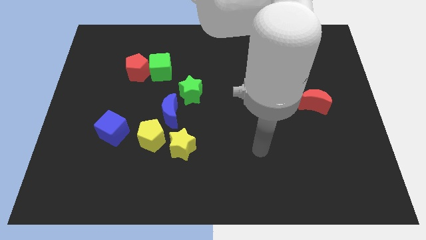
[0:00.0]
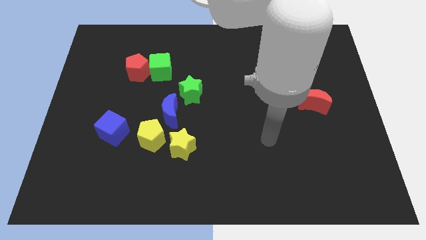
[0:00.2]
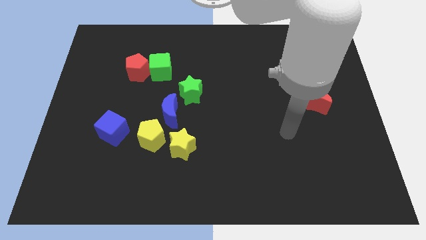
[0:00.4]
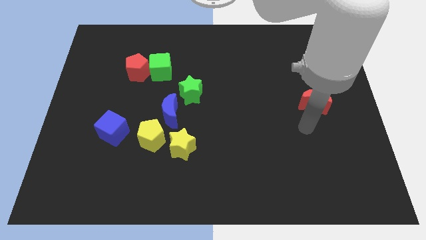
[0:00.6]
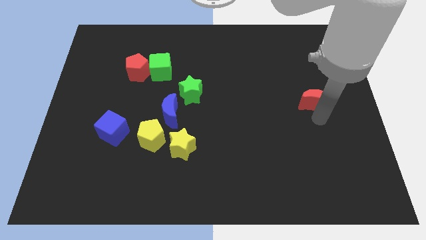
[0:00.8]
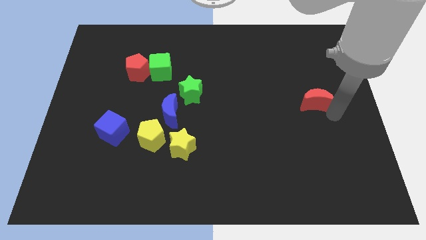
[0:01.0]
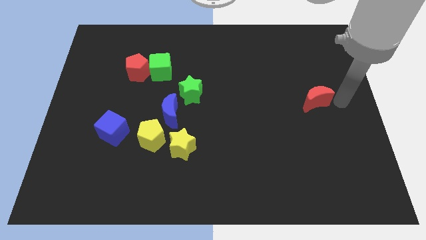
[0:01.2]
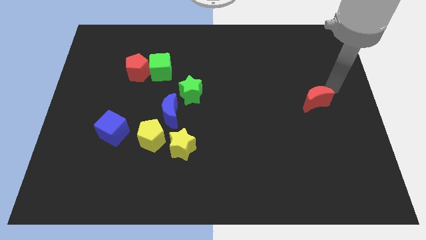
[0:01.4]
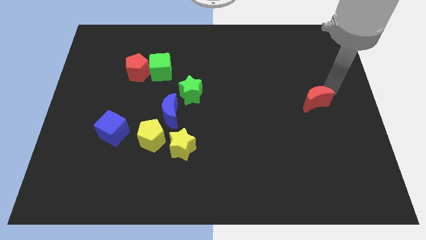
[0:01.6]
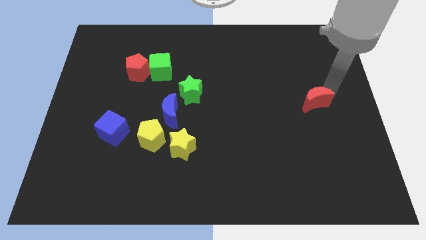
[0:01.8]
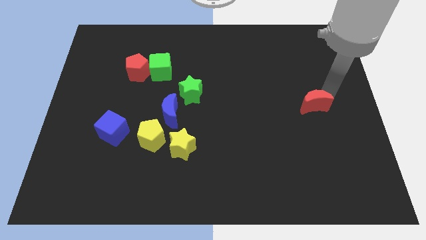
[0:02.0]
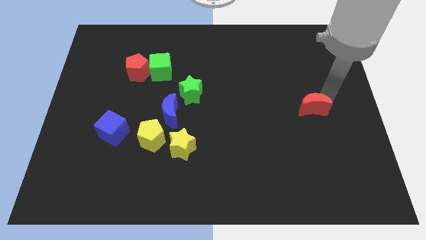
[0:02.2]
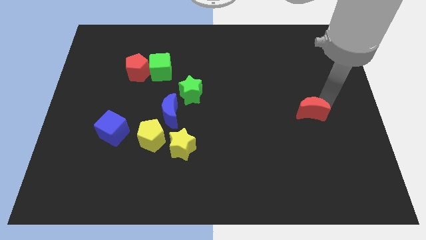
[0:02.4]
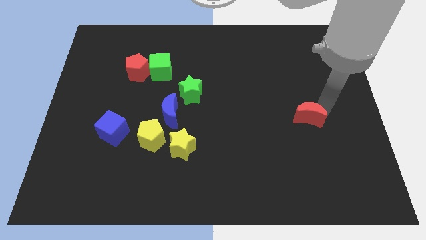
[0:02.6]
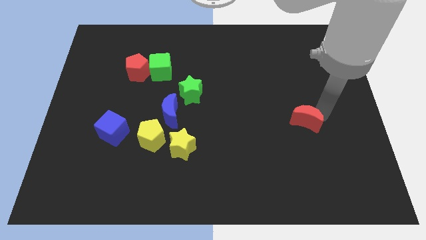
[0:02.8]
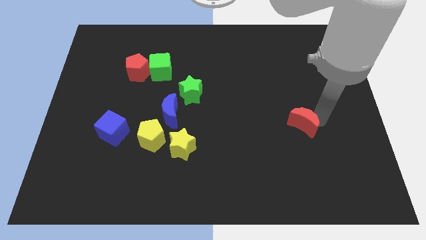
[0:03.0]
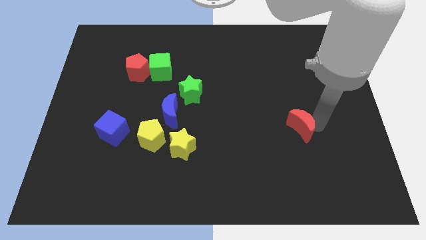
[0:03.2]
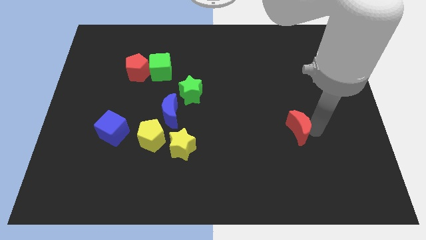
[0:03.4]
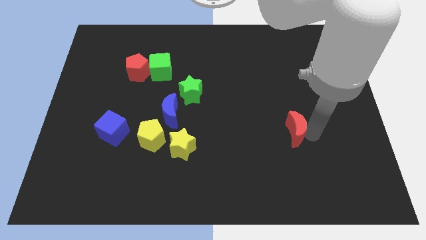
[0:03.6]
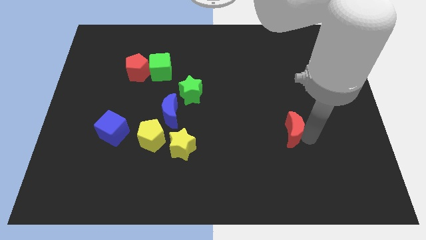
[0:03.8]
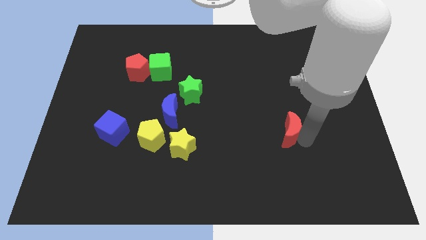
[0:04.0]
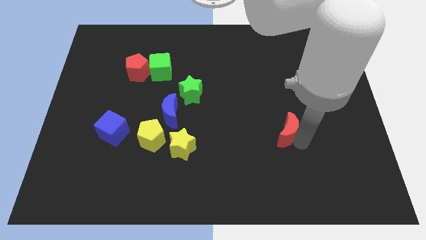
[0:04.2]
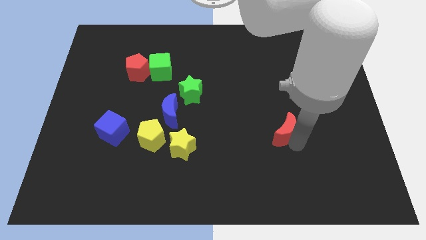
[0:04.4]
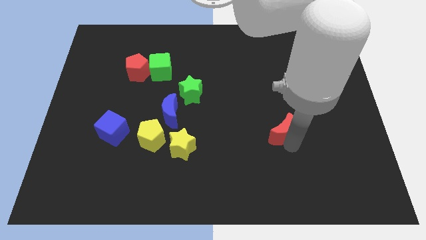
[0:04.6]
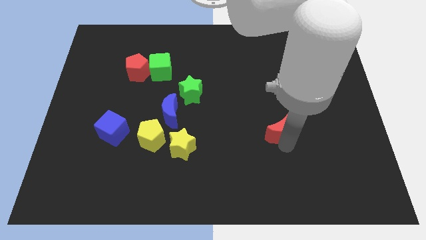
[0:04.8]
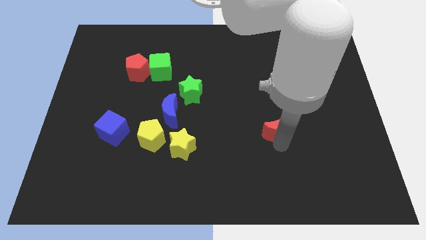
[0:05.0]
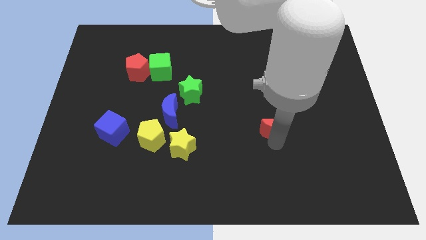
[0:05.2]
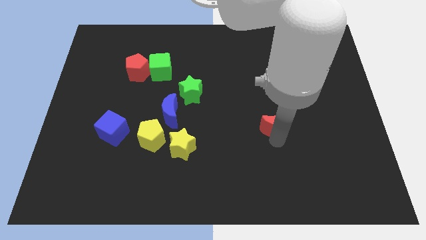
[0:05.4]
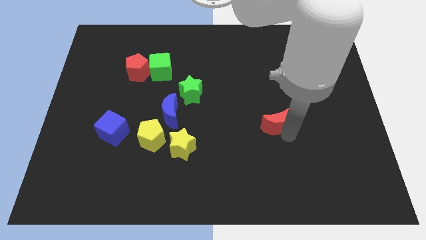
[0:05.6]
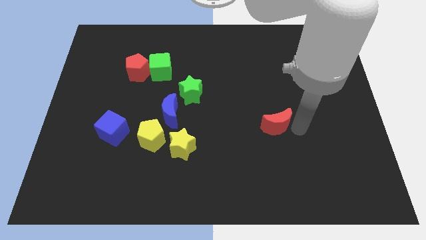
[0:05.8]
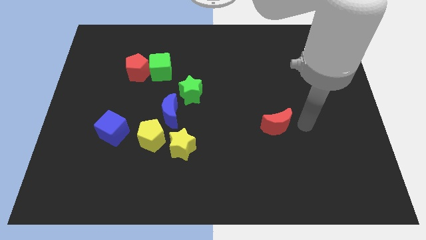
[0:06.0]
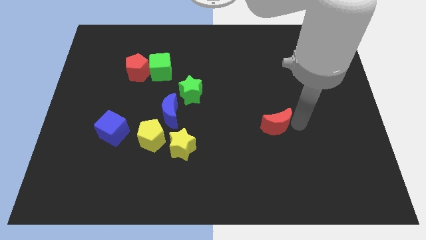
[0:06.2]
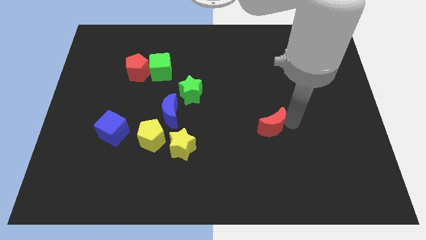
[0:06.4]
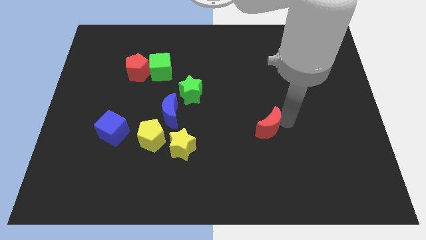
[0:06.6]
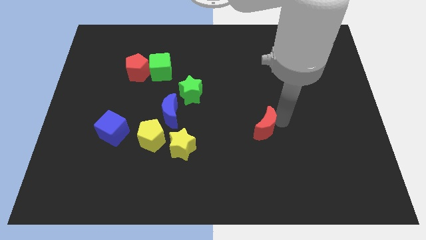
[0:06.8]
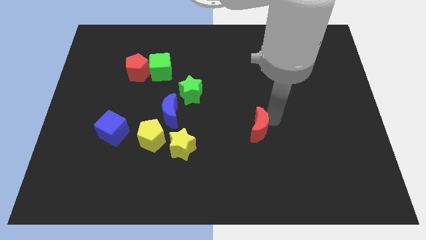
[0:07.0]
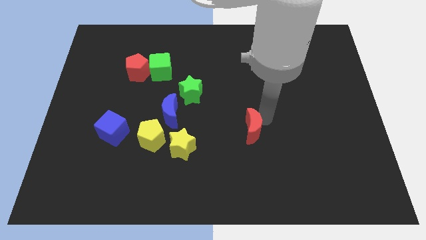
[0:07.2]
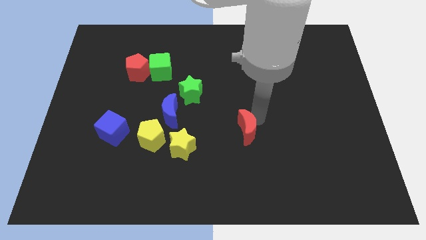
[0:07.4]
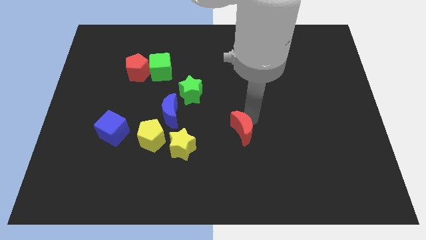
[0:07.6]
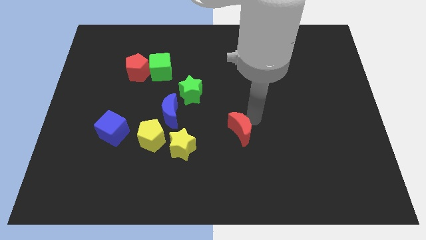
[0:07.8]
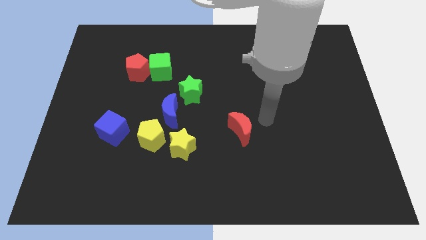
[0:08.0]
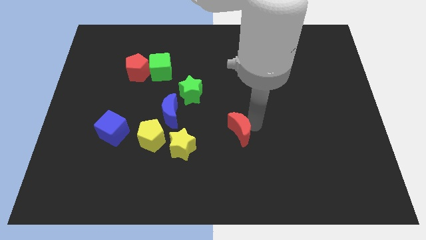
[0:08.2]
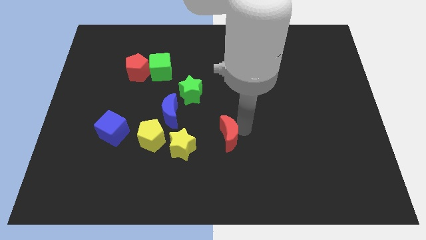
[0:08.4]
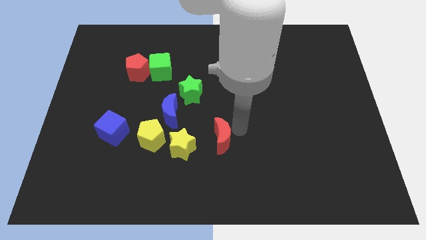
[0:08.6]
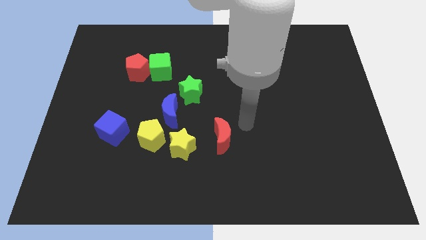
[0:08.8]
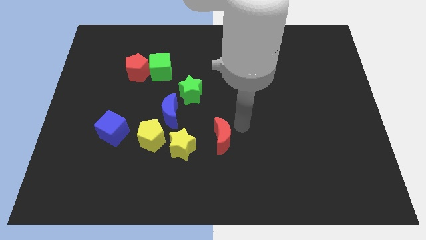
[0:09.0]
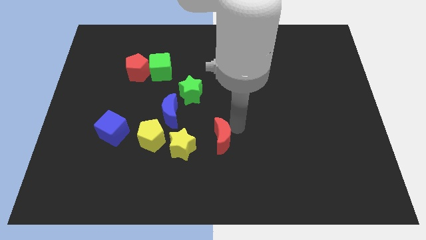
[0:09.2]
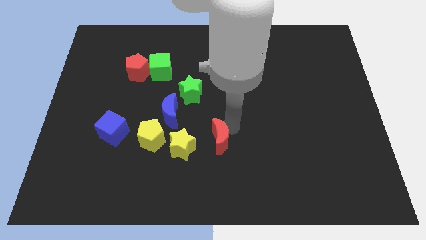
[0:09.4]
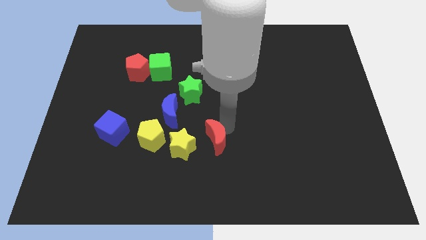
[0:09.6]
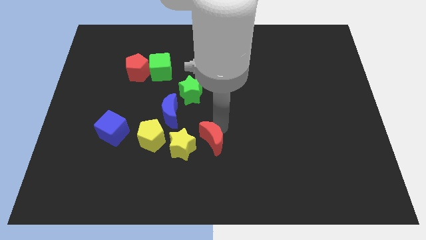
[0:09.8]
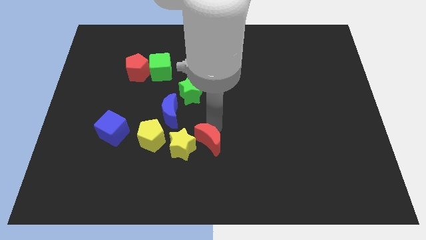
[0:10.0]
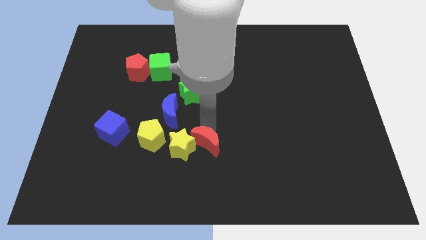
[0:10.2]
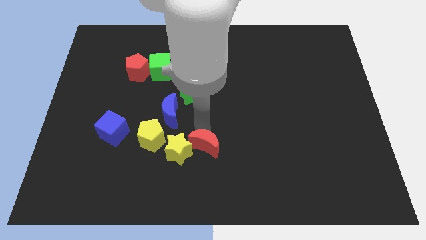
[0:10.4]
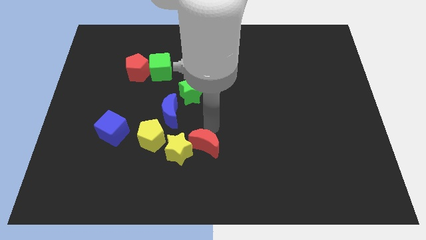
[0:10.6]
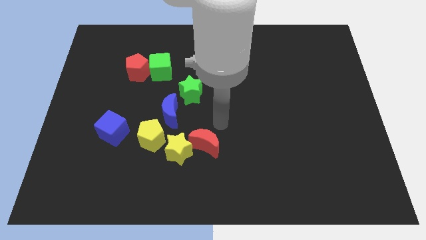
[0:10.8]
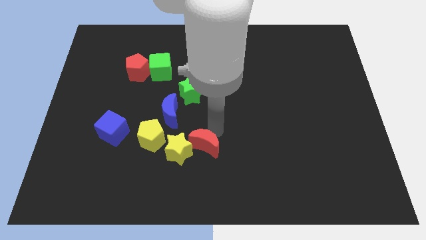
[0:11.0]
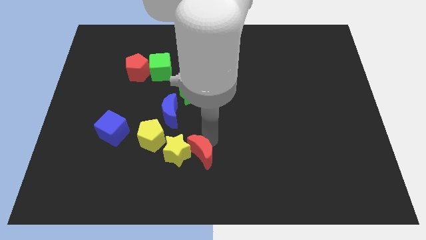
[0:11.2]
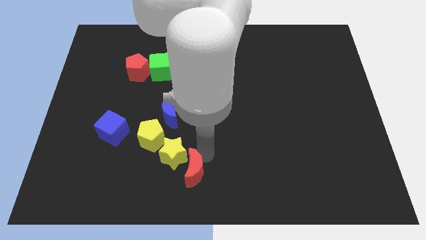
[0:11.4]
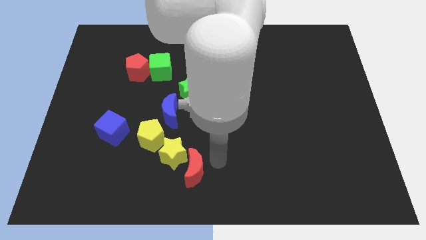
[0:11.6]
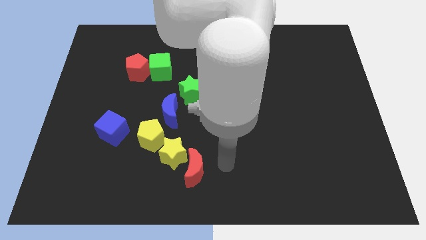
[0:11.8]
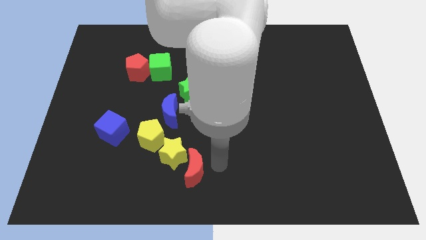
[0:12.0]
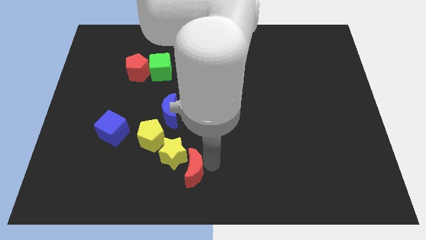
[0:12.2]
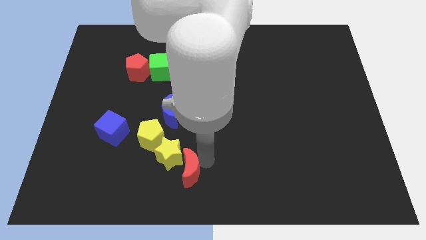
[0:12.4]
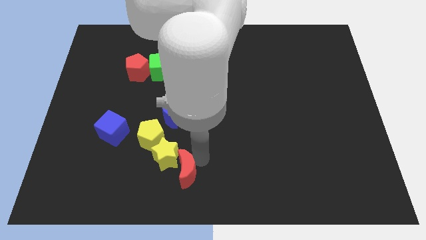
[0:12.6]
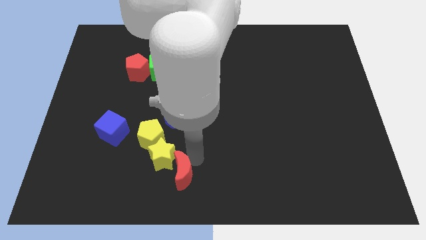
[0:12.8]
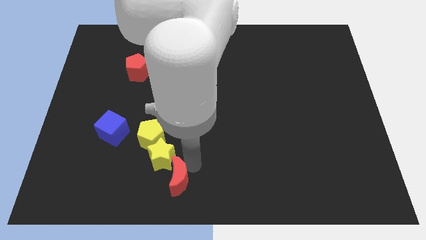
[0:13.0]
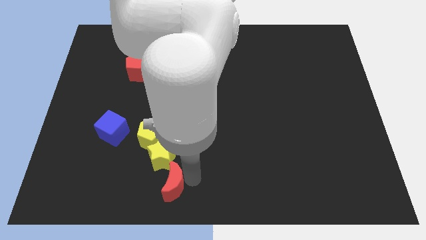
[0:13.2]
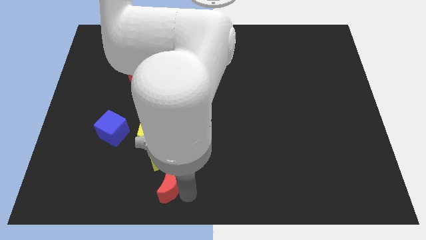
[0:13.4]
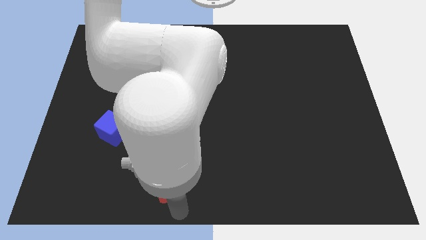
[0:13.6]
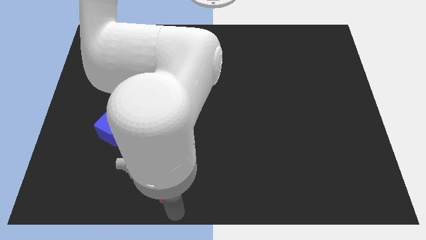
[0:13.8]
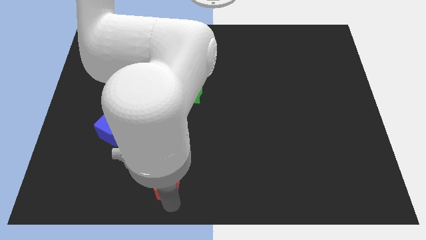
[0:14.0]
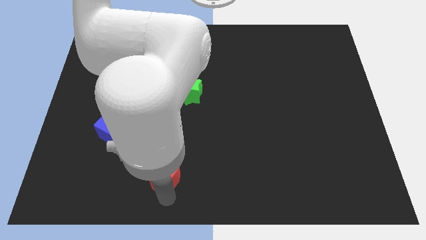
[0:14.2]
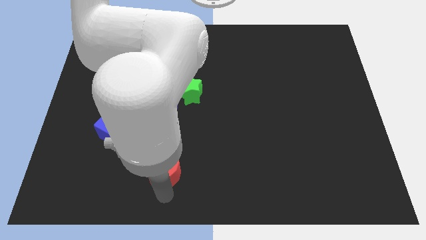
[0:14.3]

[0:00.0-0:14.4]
move the red moon below the blue moon
